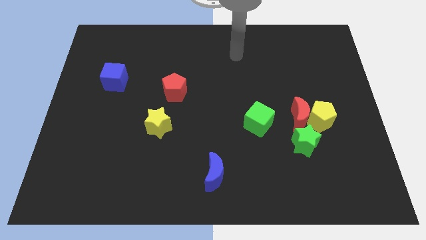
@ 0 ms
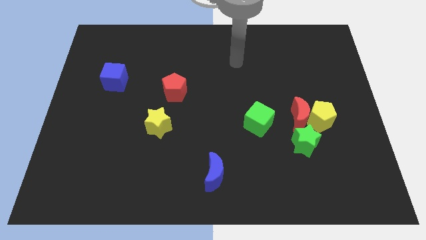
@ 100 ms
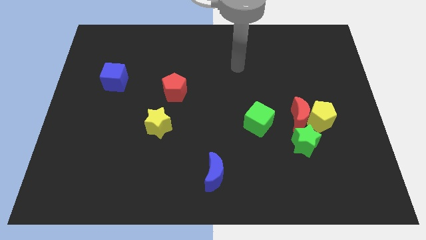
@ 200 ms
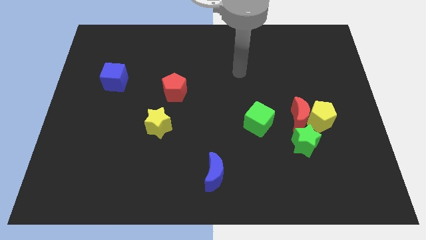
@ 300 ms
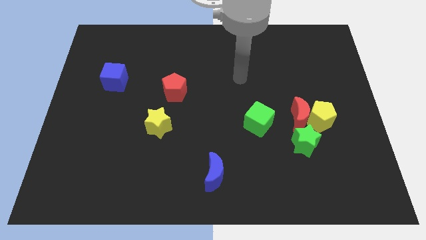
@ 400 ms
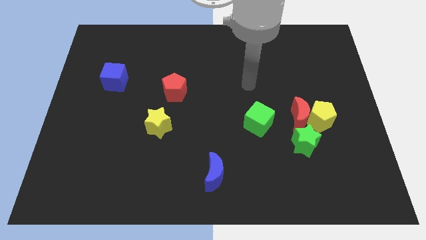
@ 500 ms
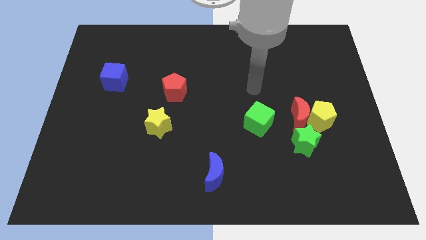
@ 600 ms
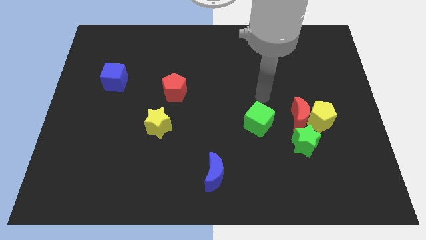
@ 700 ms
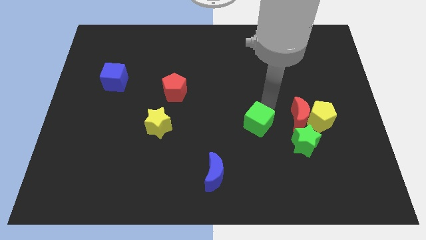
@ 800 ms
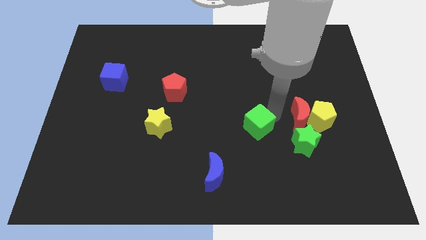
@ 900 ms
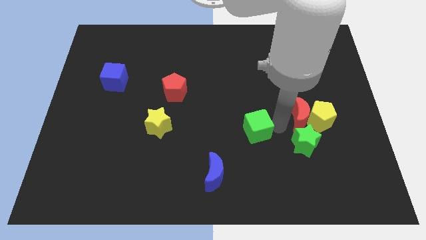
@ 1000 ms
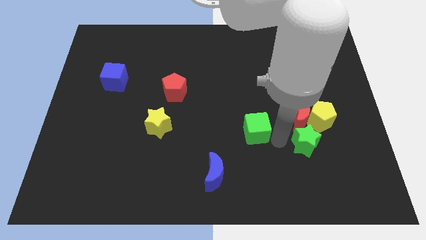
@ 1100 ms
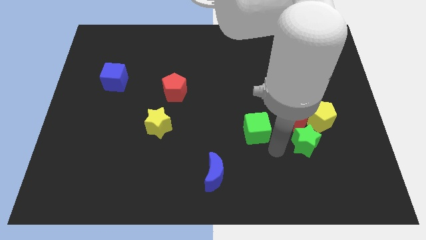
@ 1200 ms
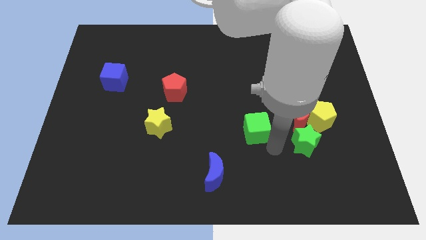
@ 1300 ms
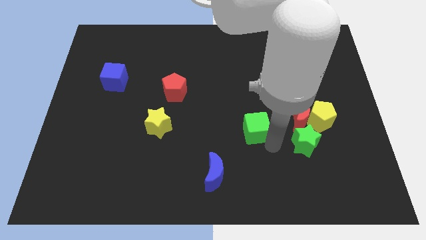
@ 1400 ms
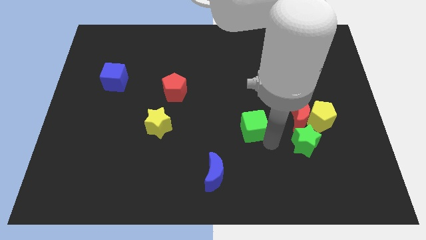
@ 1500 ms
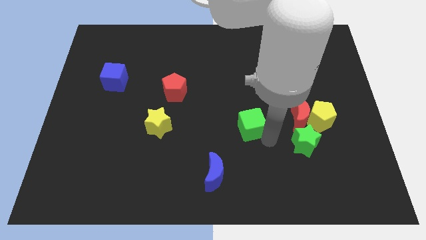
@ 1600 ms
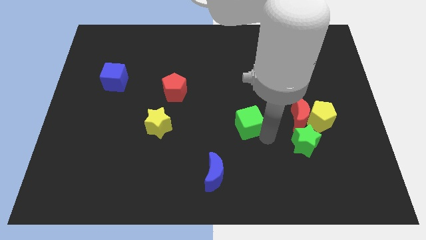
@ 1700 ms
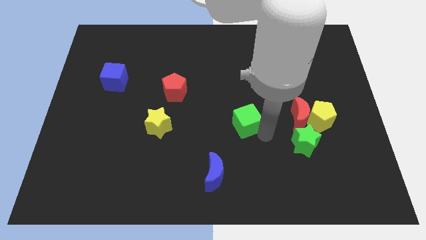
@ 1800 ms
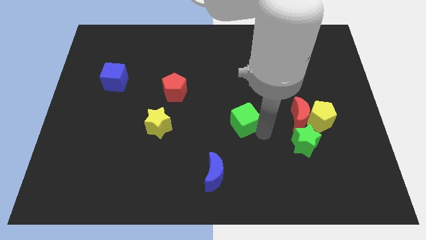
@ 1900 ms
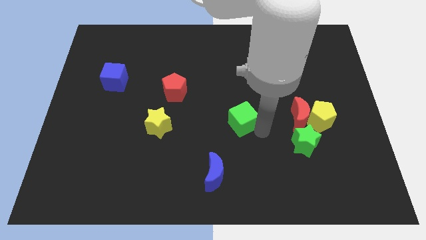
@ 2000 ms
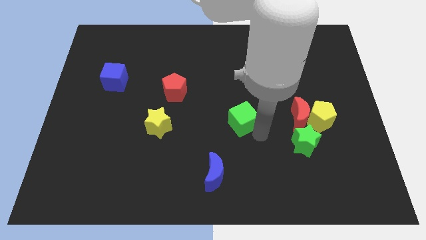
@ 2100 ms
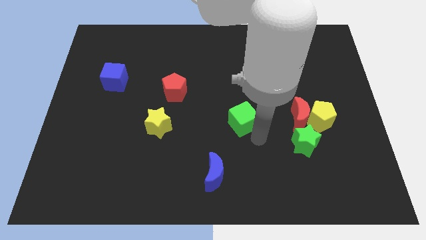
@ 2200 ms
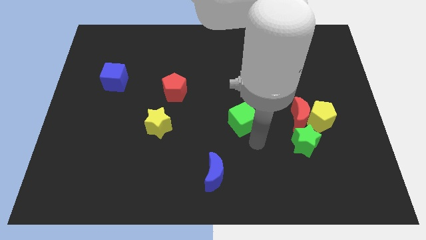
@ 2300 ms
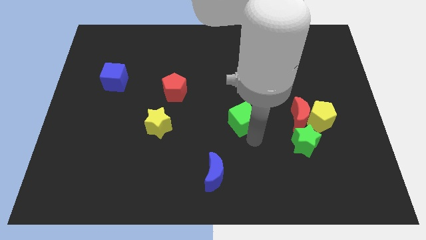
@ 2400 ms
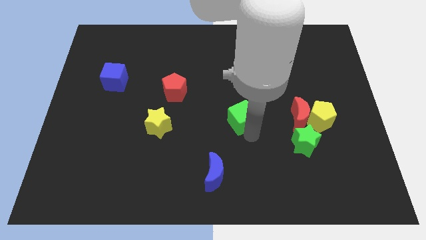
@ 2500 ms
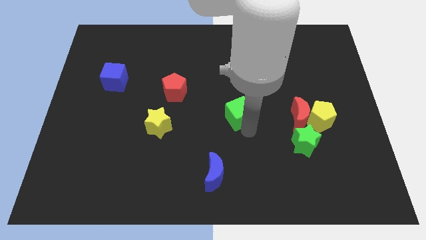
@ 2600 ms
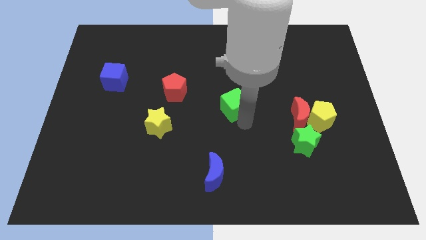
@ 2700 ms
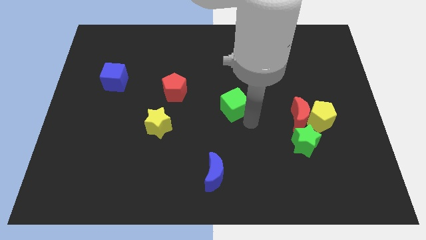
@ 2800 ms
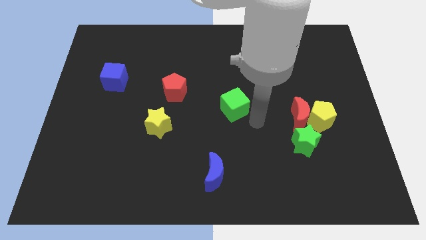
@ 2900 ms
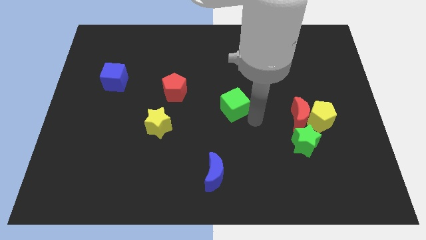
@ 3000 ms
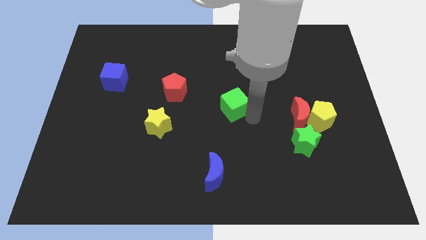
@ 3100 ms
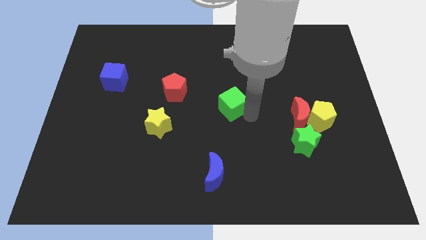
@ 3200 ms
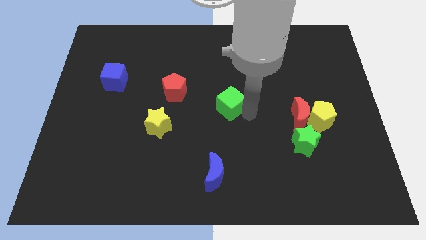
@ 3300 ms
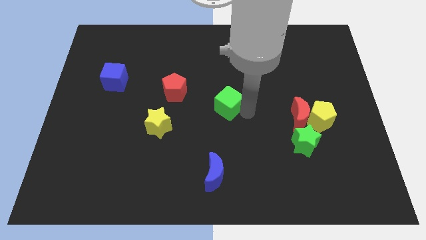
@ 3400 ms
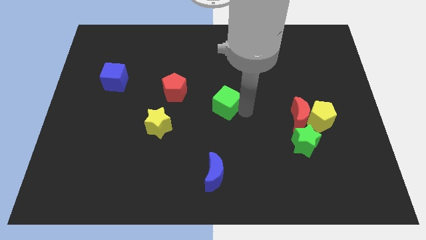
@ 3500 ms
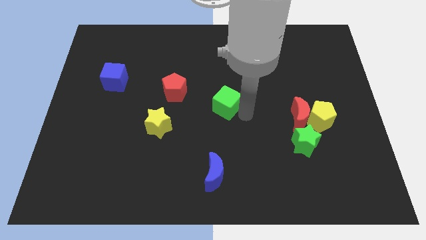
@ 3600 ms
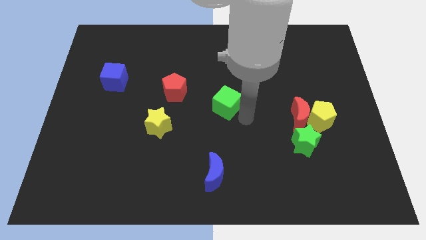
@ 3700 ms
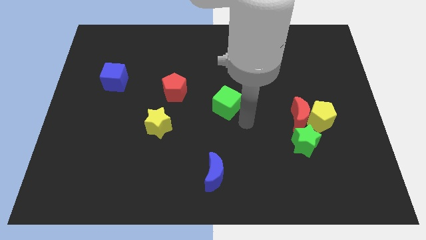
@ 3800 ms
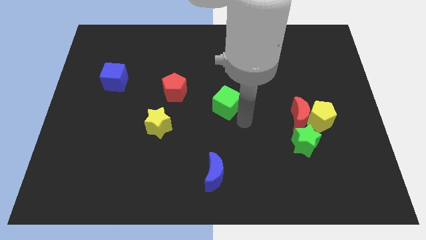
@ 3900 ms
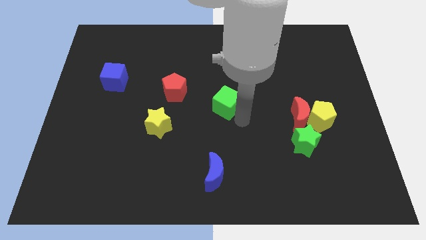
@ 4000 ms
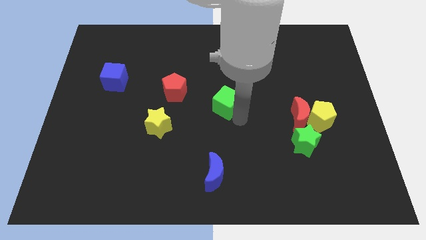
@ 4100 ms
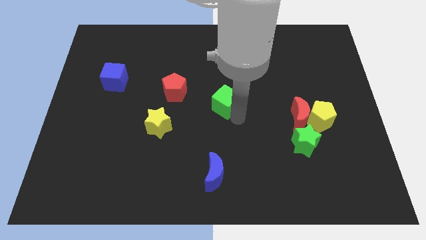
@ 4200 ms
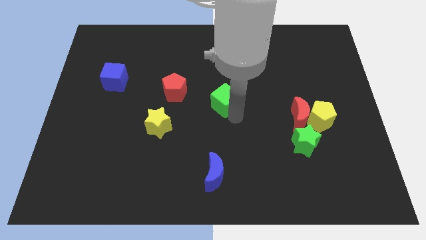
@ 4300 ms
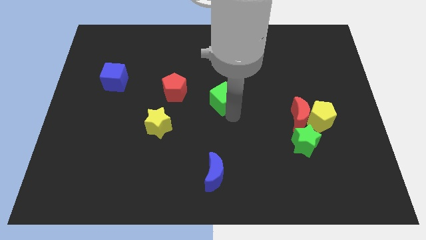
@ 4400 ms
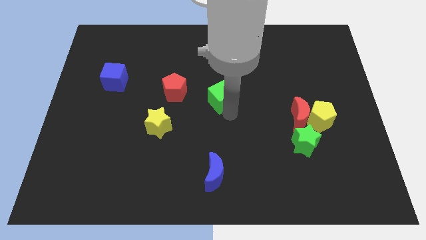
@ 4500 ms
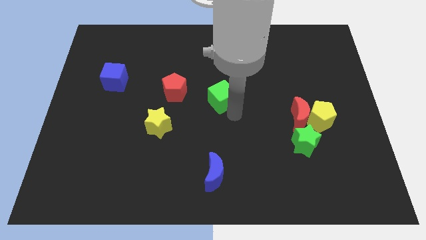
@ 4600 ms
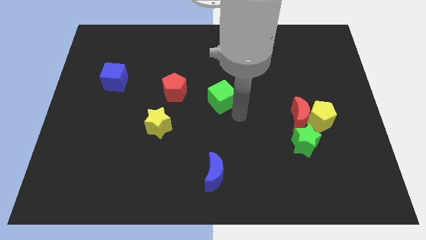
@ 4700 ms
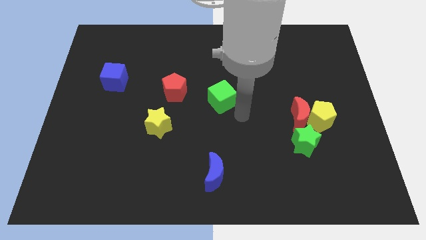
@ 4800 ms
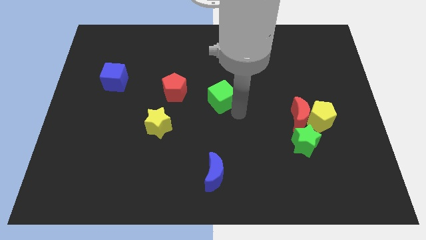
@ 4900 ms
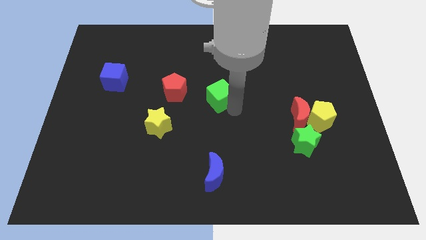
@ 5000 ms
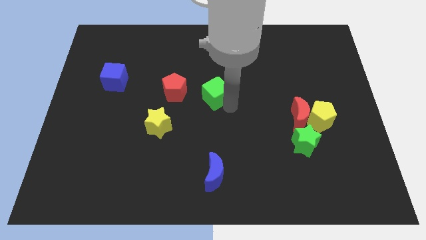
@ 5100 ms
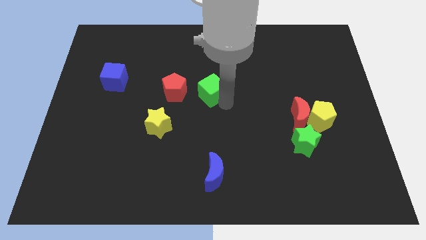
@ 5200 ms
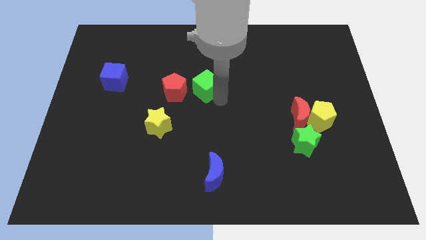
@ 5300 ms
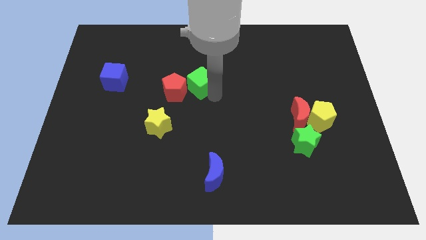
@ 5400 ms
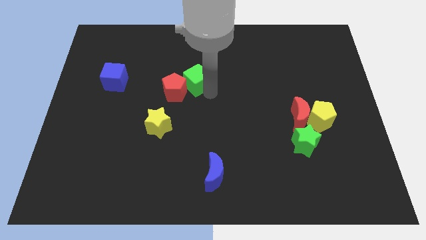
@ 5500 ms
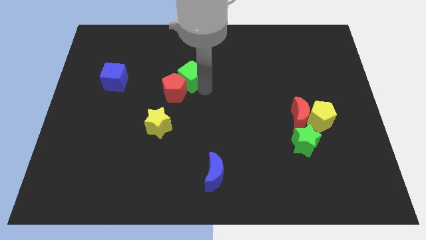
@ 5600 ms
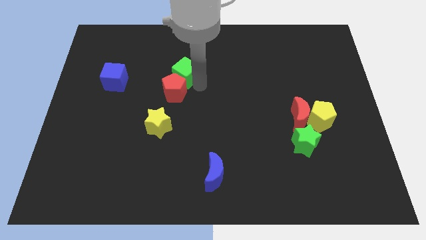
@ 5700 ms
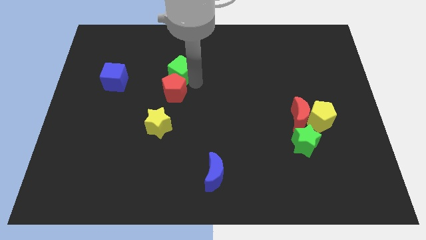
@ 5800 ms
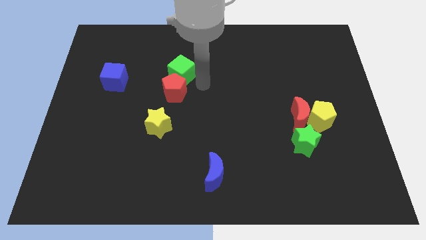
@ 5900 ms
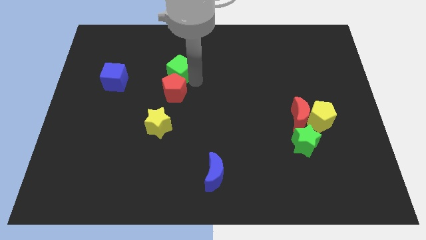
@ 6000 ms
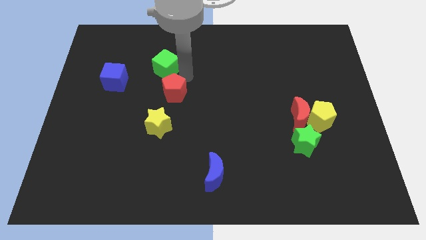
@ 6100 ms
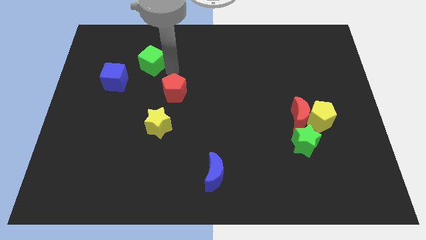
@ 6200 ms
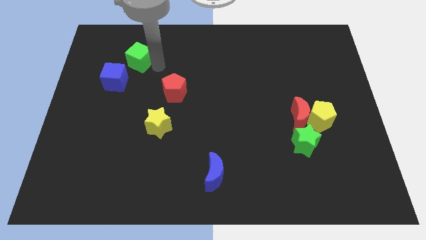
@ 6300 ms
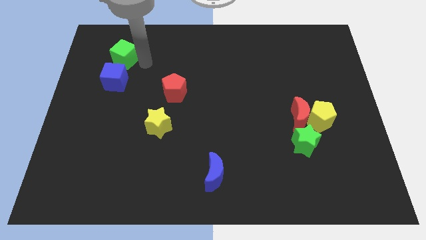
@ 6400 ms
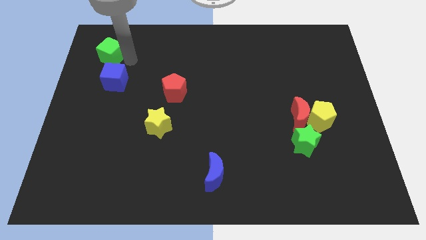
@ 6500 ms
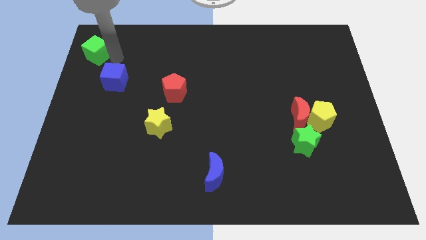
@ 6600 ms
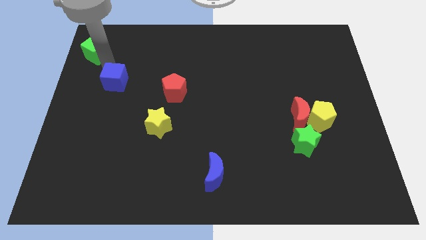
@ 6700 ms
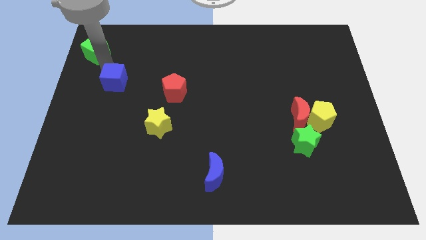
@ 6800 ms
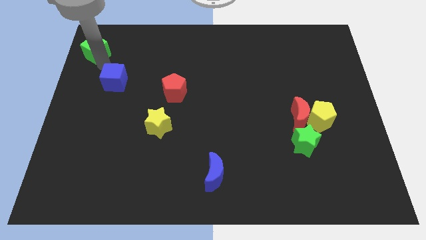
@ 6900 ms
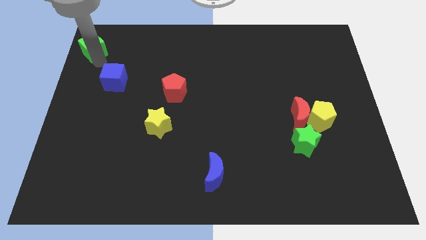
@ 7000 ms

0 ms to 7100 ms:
put the green cube to the top left
